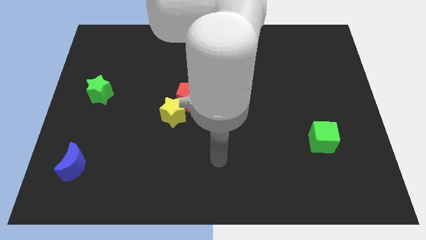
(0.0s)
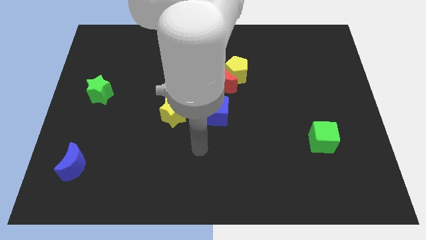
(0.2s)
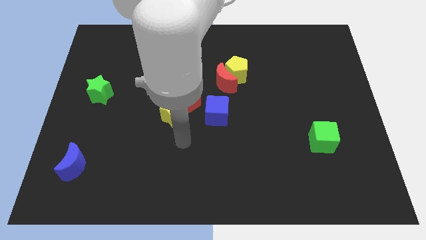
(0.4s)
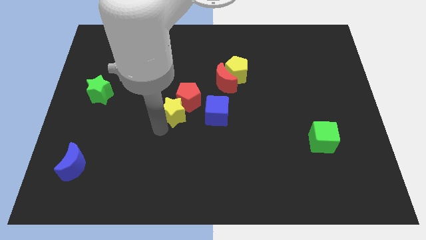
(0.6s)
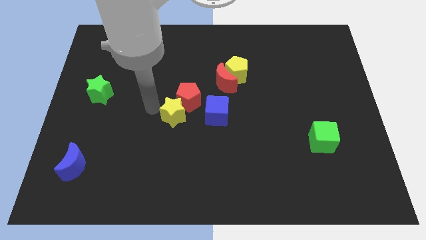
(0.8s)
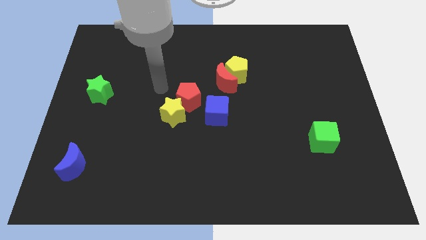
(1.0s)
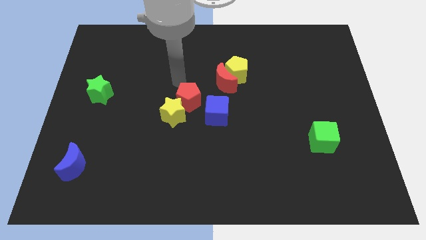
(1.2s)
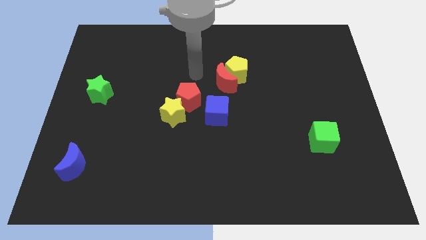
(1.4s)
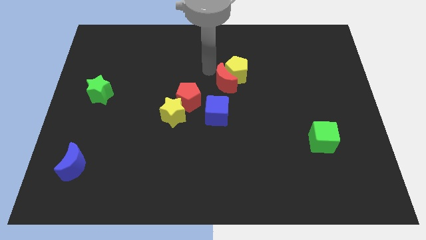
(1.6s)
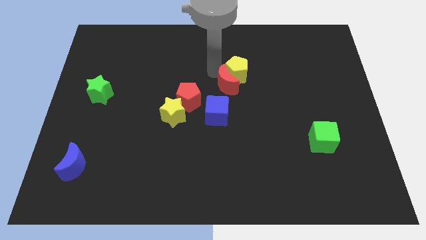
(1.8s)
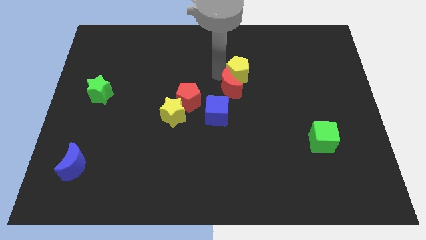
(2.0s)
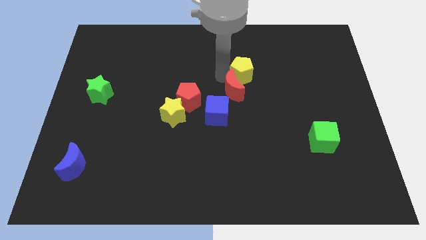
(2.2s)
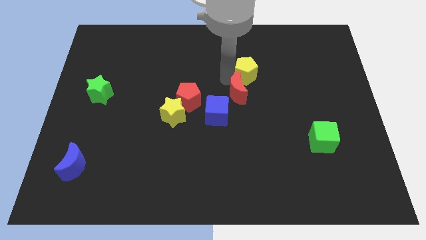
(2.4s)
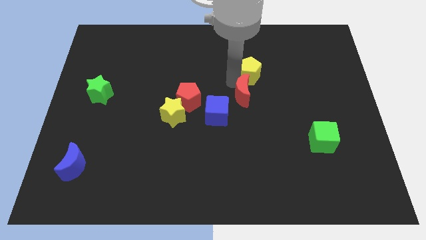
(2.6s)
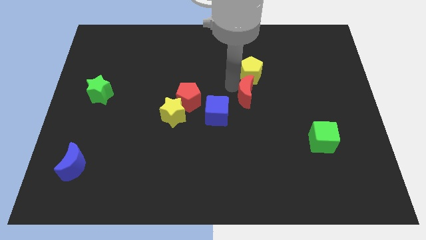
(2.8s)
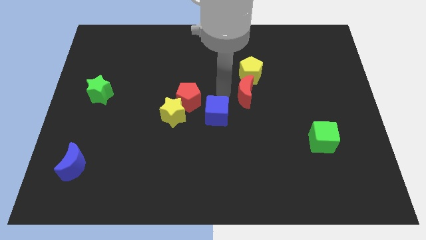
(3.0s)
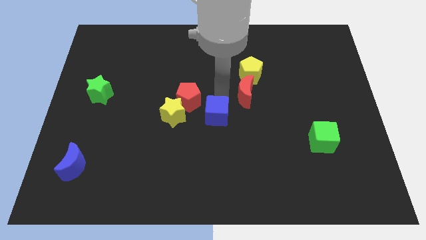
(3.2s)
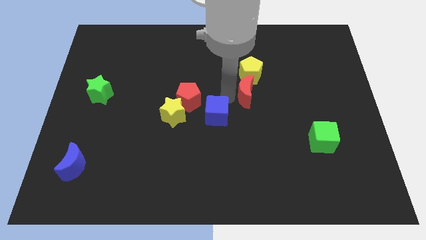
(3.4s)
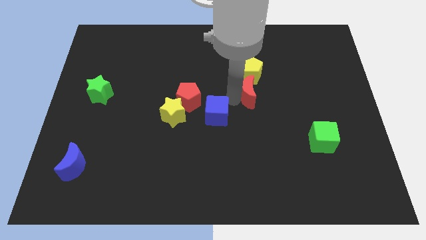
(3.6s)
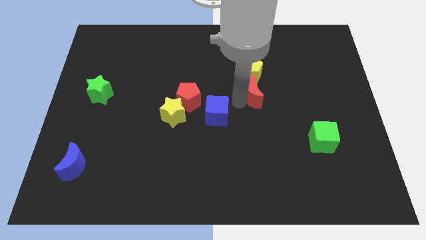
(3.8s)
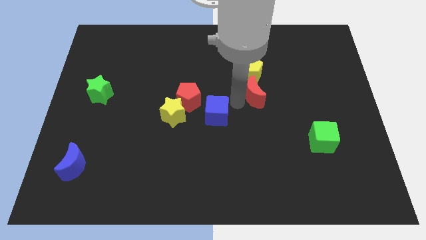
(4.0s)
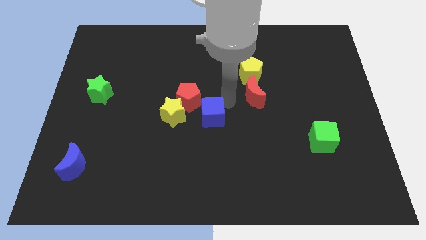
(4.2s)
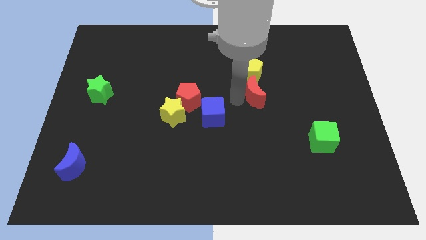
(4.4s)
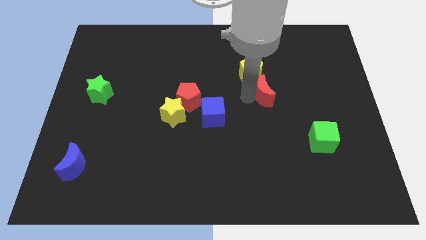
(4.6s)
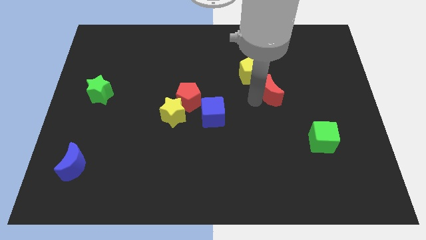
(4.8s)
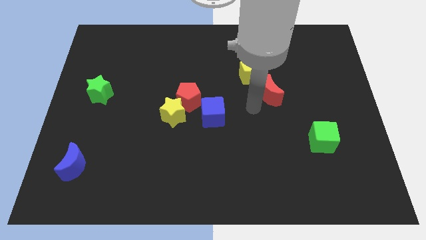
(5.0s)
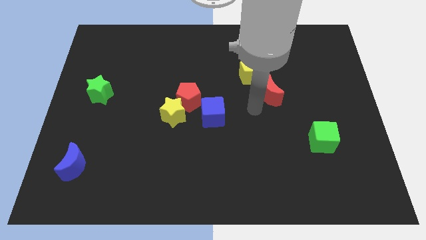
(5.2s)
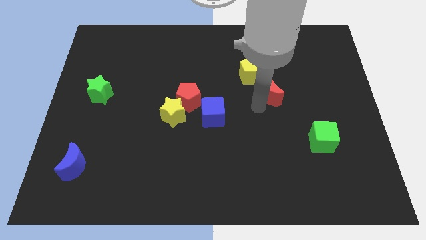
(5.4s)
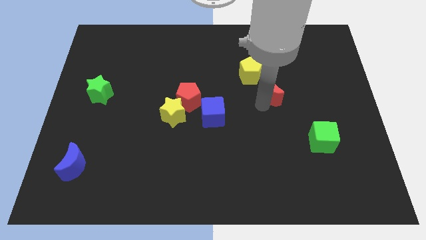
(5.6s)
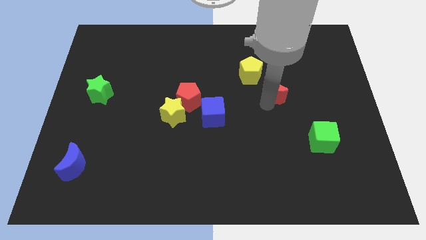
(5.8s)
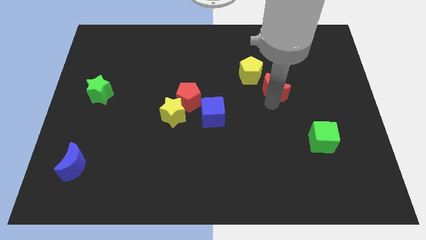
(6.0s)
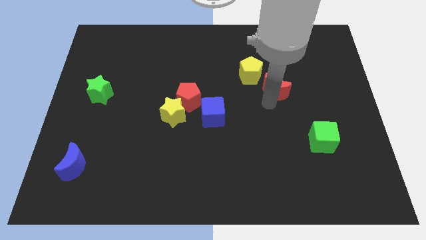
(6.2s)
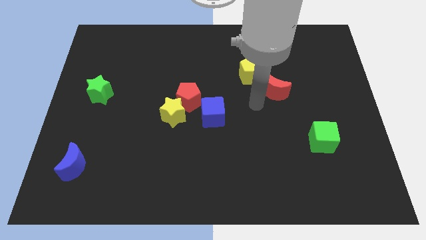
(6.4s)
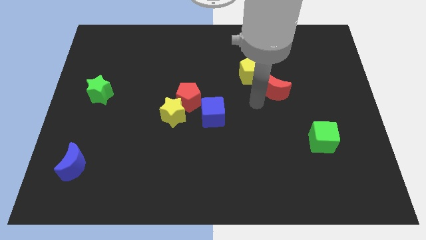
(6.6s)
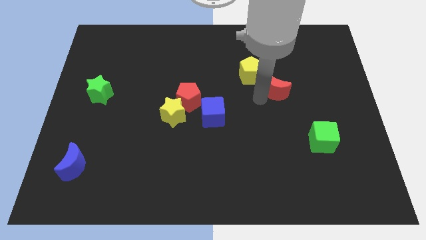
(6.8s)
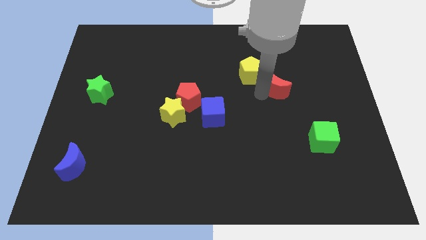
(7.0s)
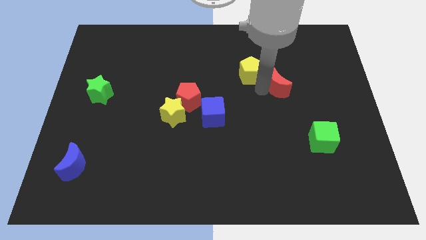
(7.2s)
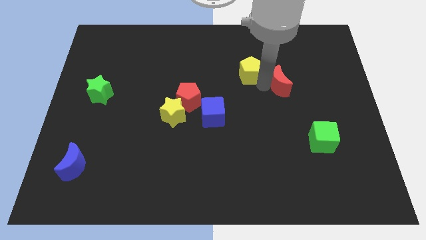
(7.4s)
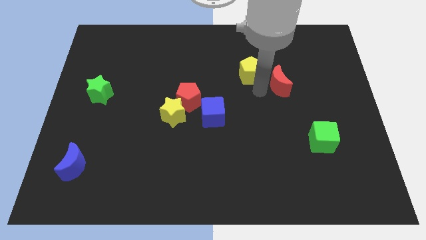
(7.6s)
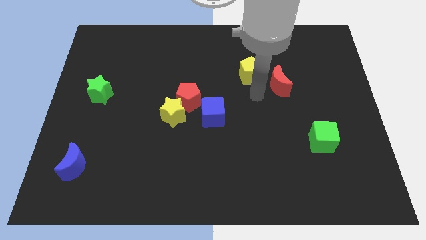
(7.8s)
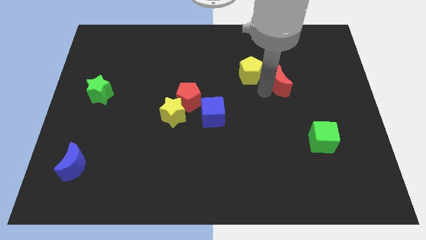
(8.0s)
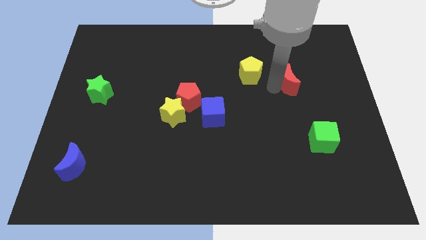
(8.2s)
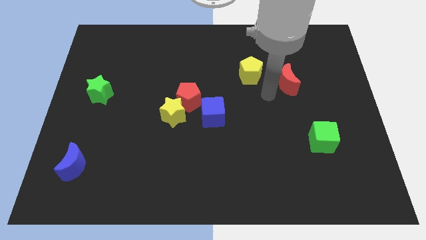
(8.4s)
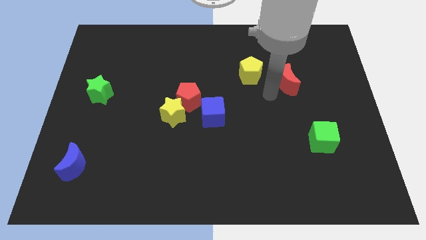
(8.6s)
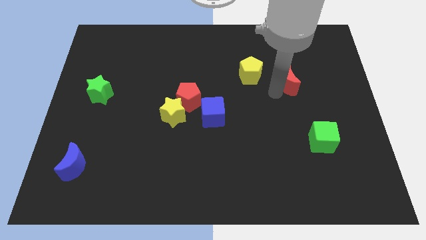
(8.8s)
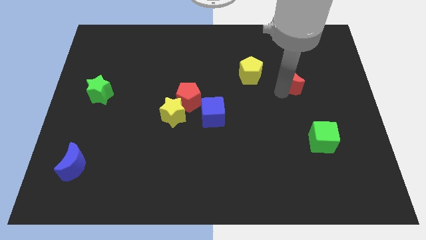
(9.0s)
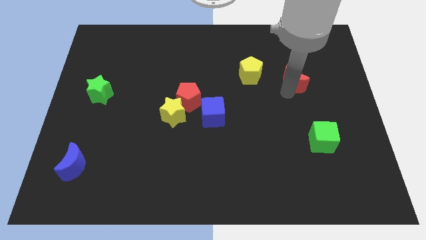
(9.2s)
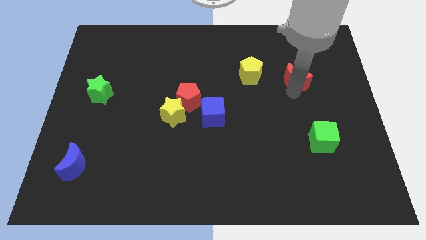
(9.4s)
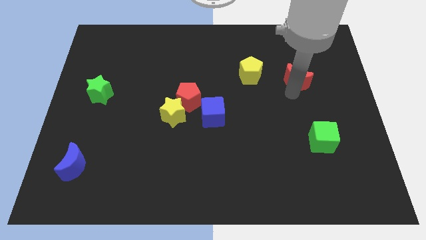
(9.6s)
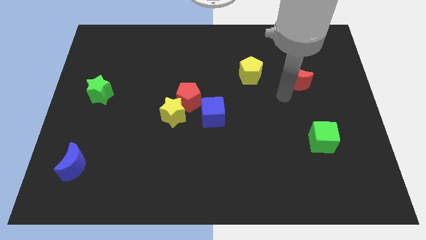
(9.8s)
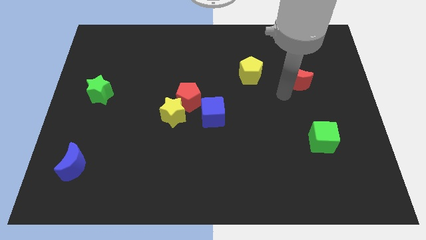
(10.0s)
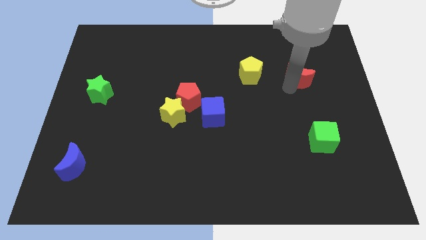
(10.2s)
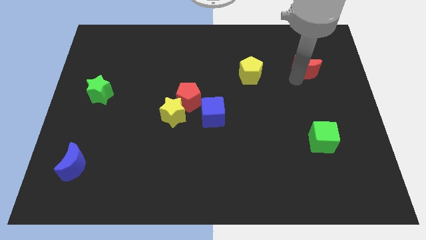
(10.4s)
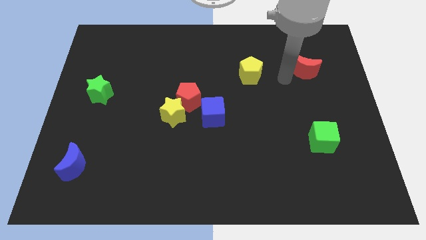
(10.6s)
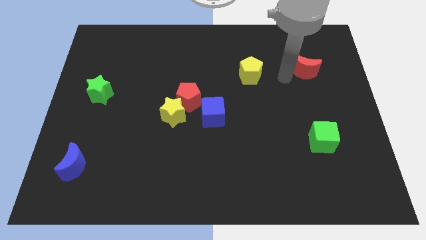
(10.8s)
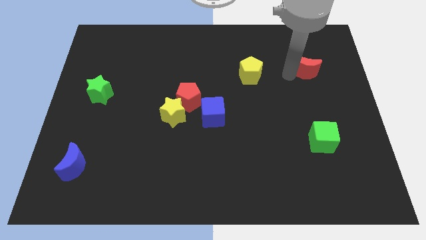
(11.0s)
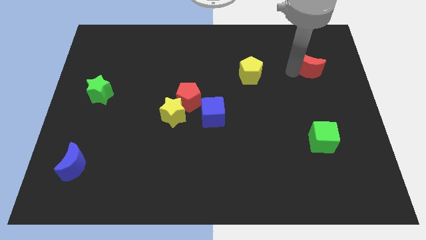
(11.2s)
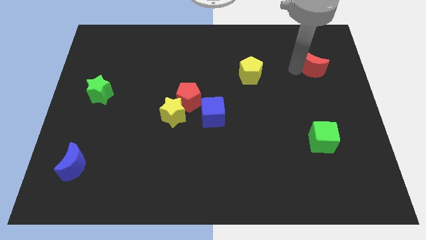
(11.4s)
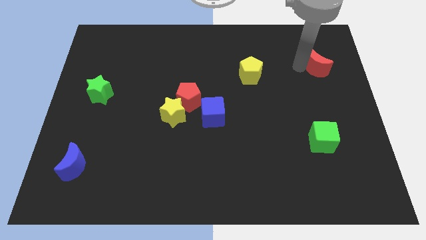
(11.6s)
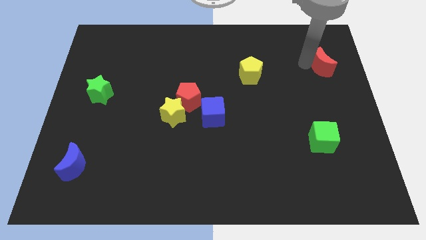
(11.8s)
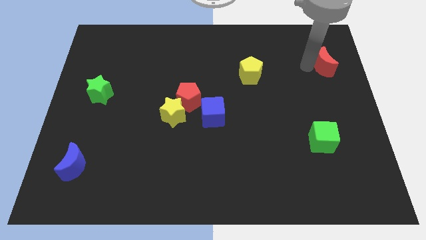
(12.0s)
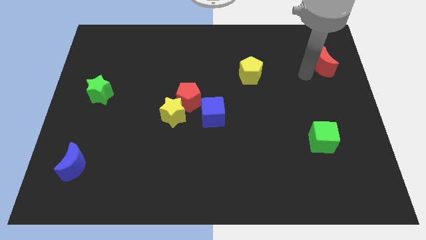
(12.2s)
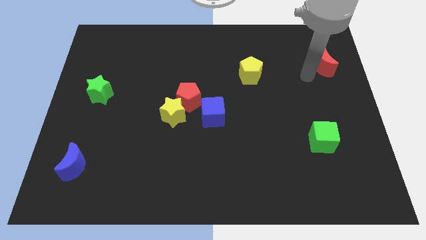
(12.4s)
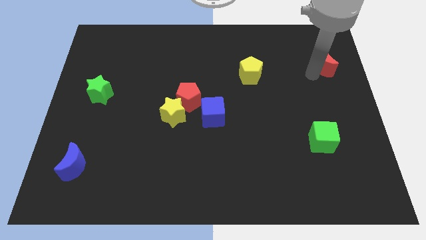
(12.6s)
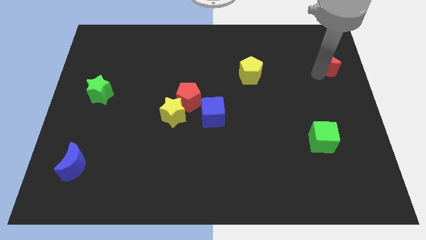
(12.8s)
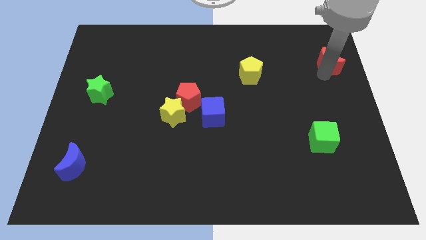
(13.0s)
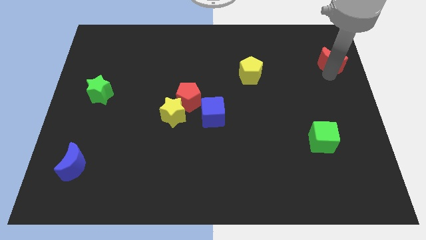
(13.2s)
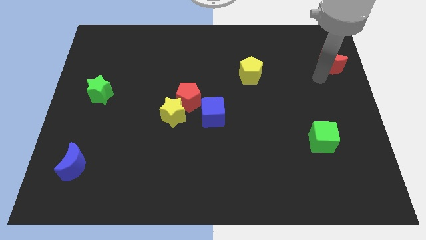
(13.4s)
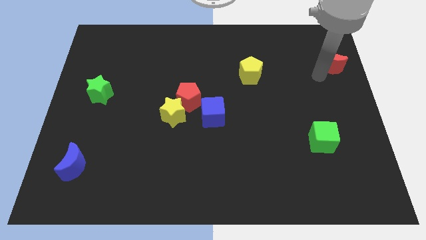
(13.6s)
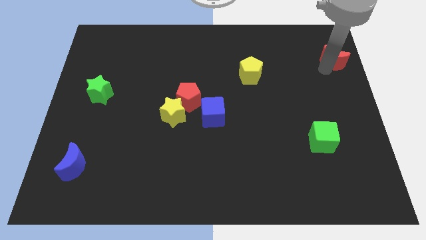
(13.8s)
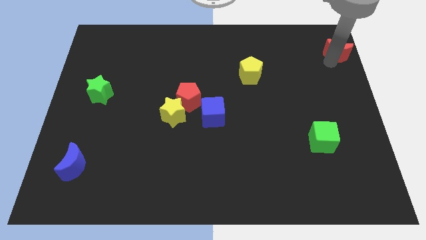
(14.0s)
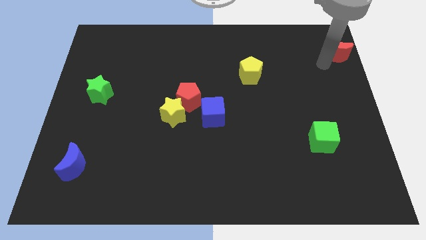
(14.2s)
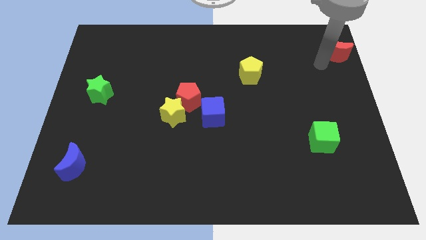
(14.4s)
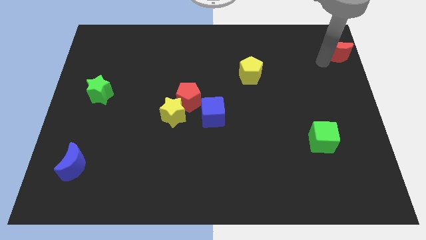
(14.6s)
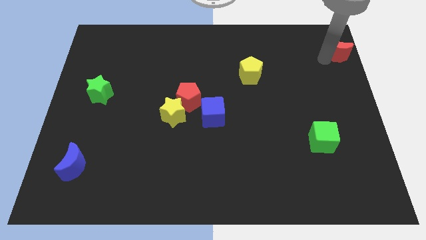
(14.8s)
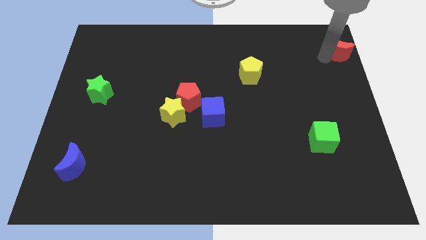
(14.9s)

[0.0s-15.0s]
put the red moon to the upper right corner

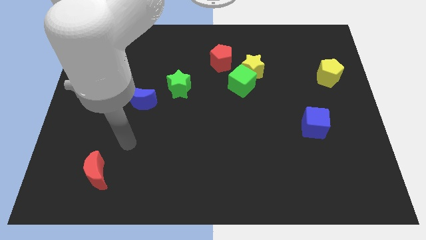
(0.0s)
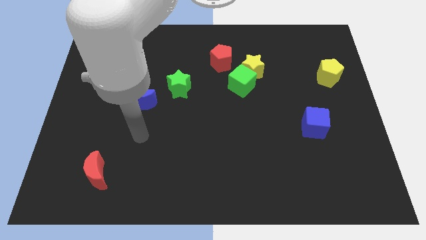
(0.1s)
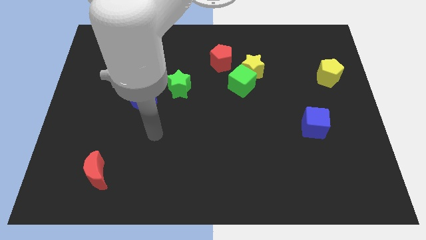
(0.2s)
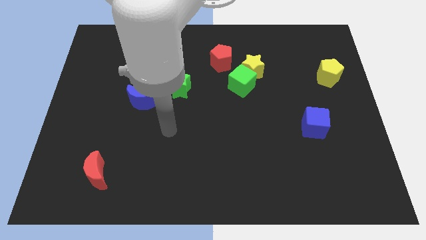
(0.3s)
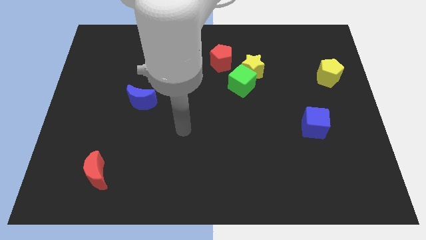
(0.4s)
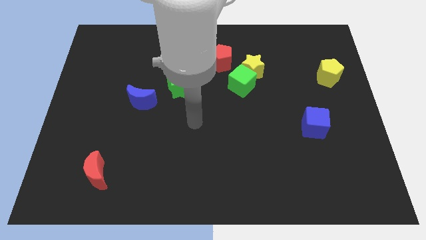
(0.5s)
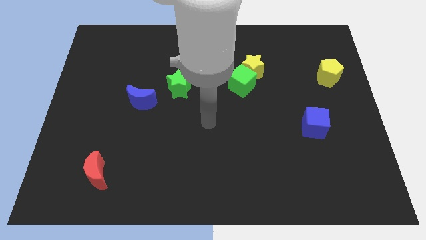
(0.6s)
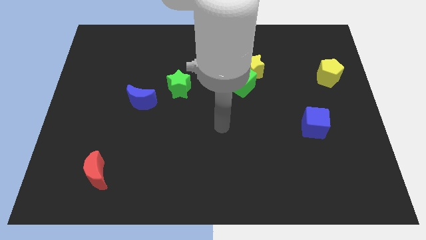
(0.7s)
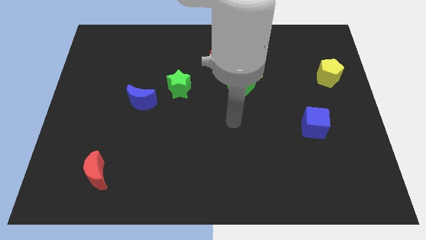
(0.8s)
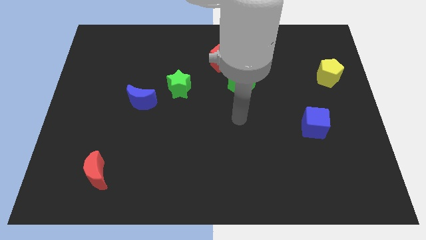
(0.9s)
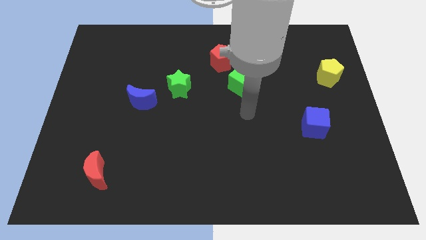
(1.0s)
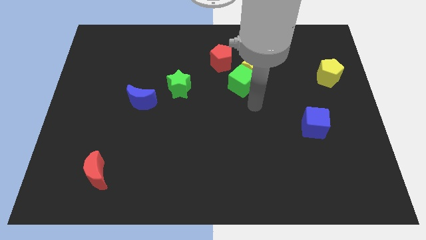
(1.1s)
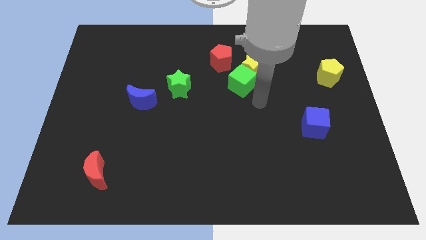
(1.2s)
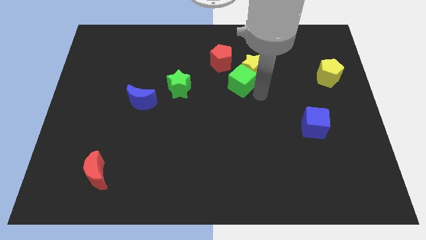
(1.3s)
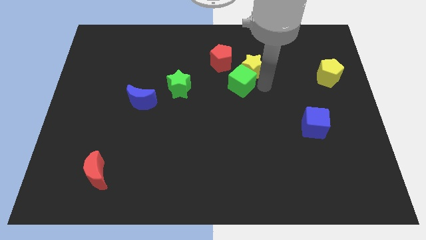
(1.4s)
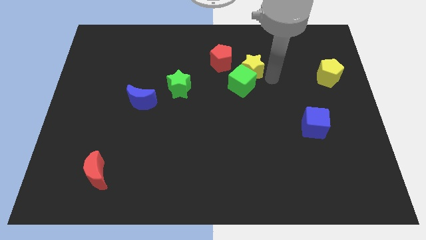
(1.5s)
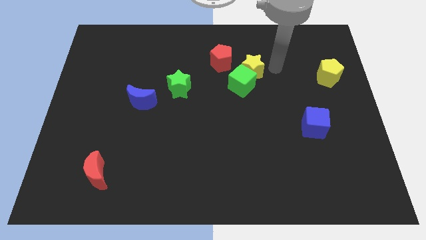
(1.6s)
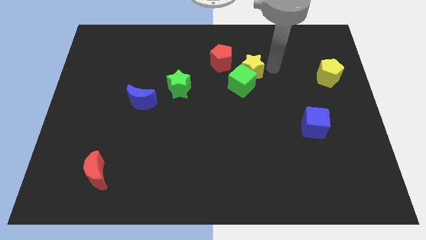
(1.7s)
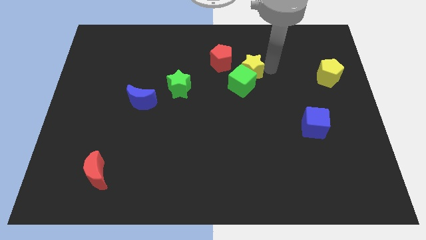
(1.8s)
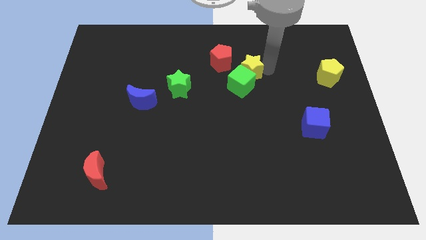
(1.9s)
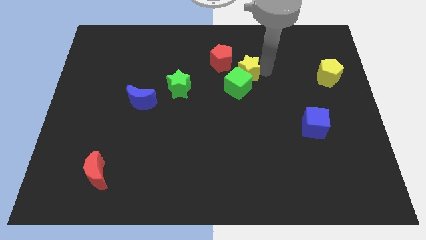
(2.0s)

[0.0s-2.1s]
move the yellow star to the middle
